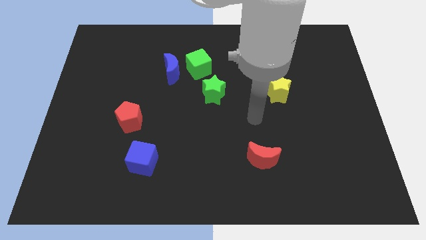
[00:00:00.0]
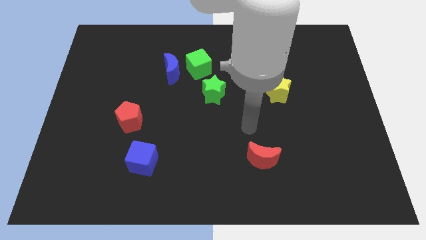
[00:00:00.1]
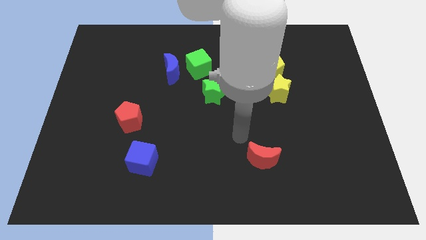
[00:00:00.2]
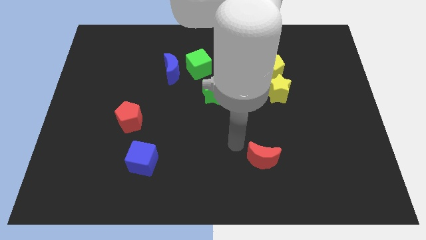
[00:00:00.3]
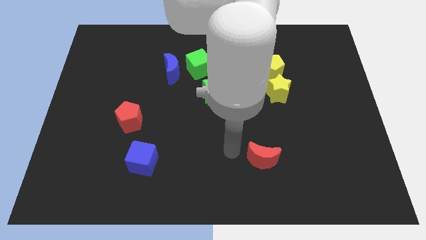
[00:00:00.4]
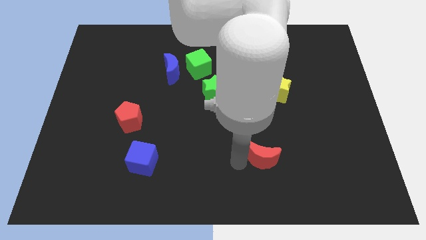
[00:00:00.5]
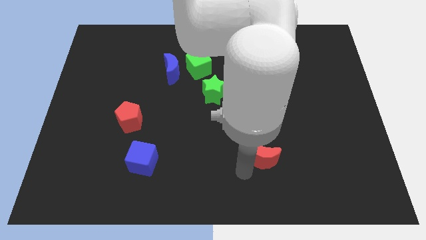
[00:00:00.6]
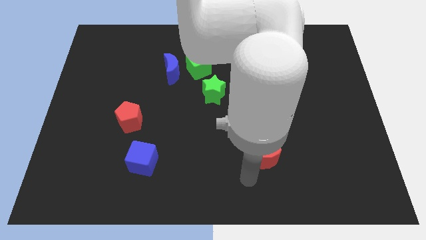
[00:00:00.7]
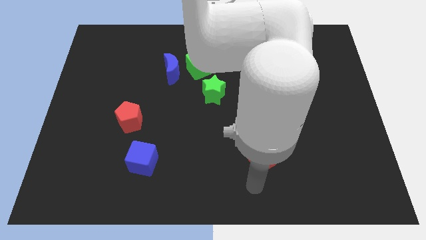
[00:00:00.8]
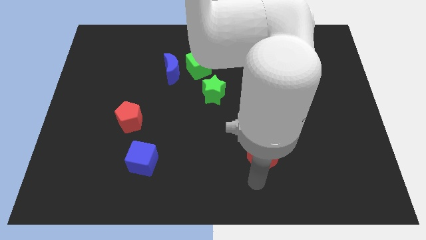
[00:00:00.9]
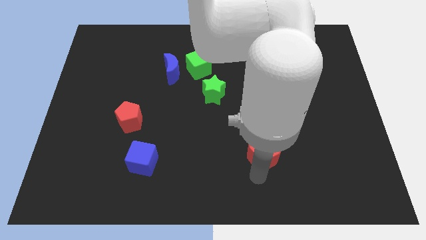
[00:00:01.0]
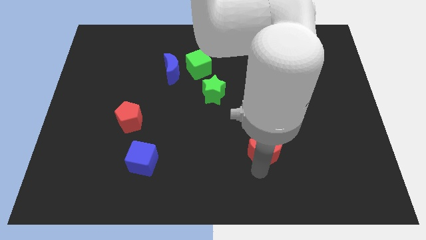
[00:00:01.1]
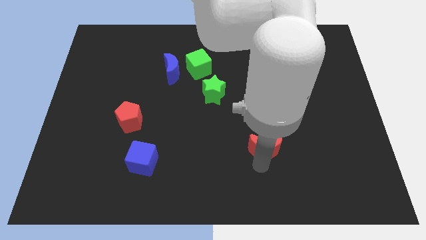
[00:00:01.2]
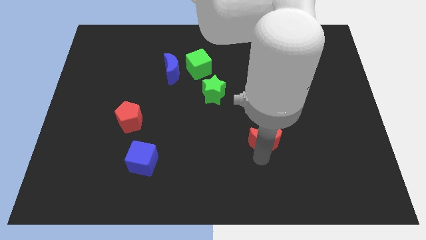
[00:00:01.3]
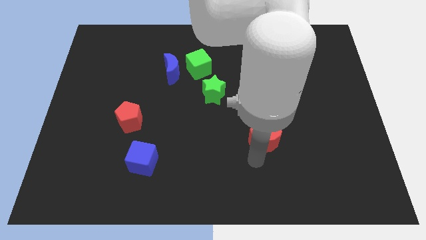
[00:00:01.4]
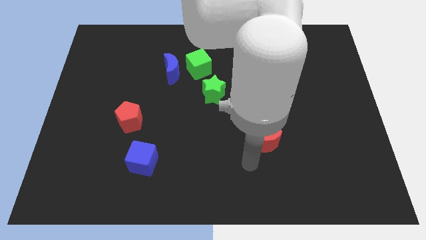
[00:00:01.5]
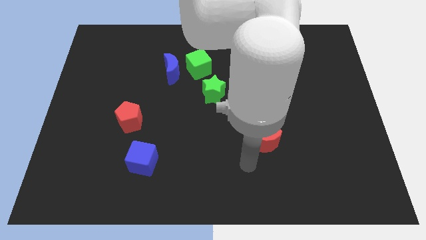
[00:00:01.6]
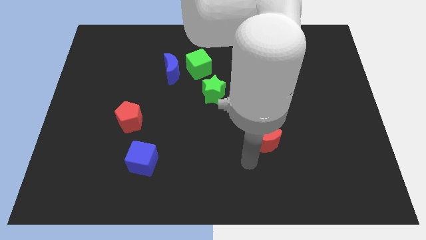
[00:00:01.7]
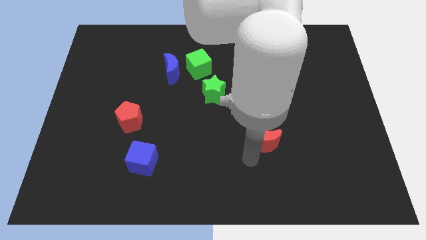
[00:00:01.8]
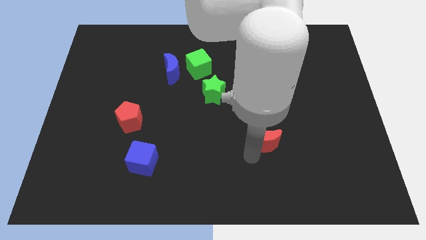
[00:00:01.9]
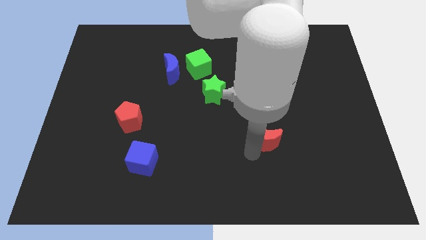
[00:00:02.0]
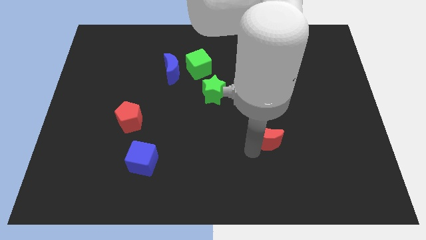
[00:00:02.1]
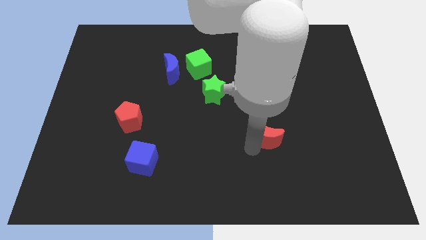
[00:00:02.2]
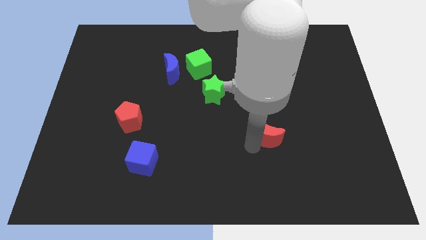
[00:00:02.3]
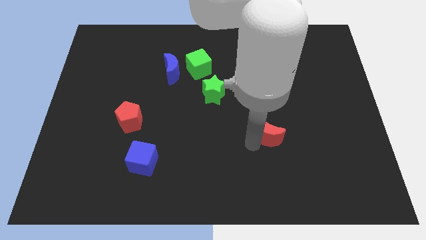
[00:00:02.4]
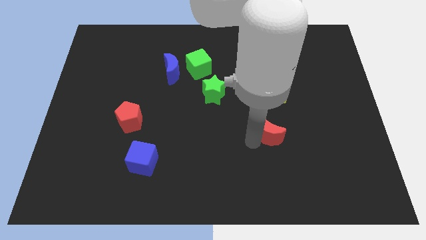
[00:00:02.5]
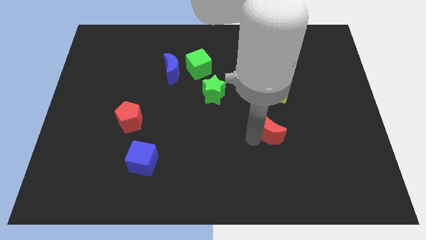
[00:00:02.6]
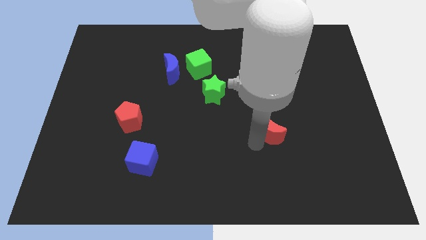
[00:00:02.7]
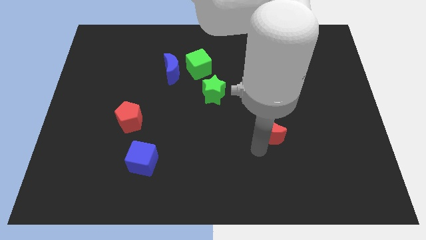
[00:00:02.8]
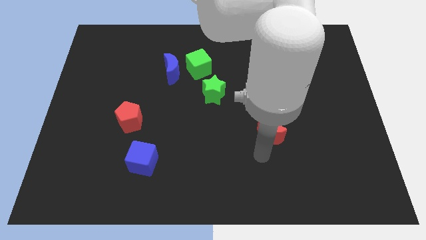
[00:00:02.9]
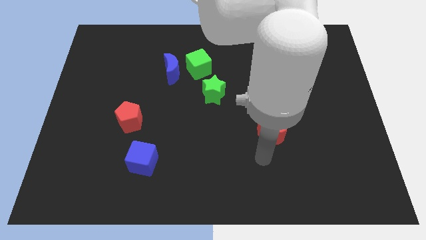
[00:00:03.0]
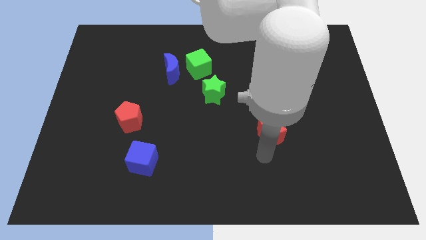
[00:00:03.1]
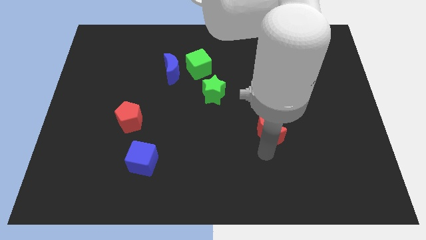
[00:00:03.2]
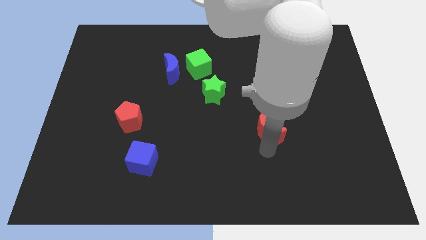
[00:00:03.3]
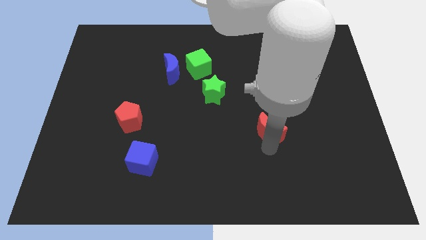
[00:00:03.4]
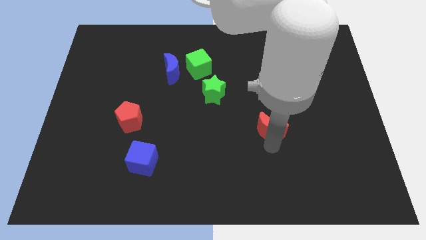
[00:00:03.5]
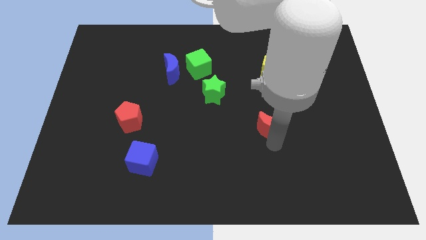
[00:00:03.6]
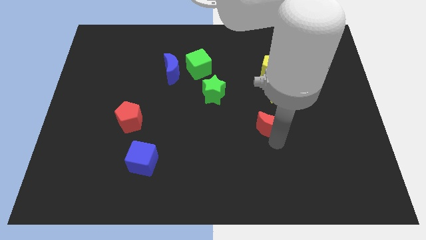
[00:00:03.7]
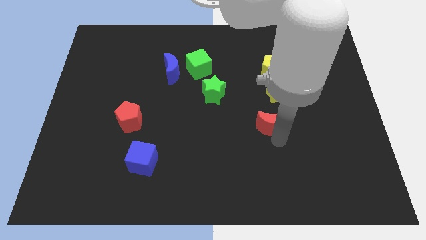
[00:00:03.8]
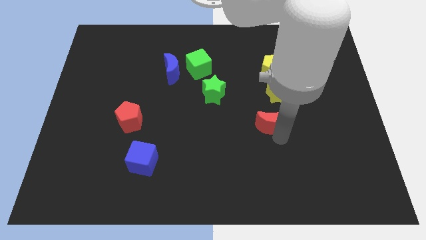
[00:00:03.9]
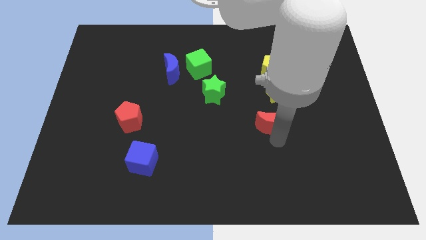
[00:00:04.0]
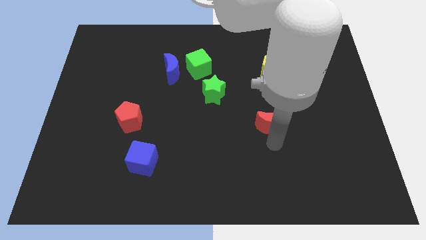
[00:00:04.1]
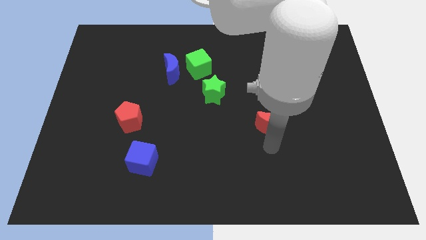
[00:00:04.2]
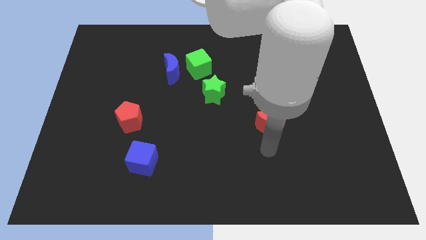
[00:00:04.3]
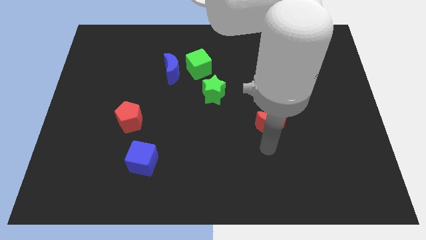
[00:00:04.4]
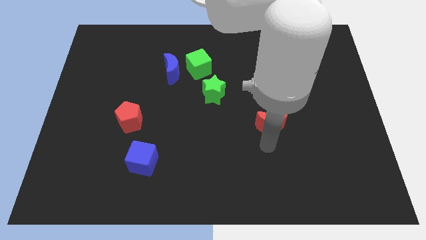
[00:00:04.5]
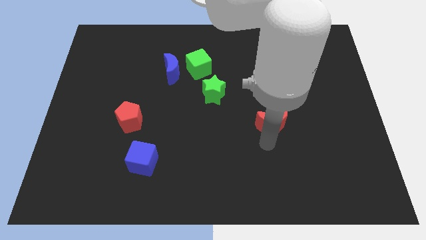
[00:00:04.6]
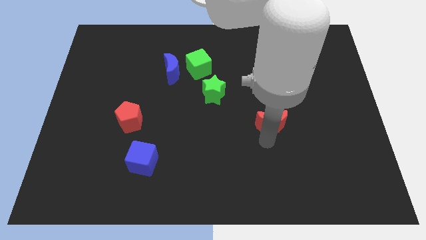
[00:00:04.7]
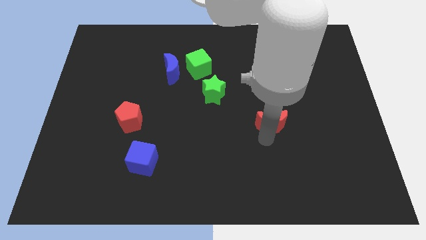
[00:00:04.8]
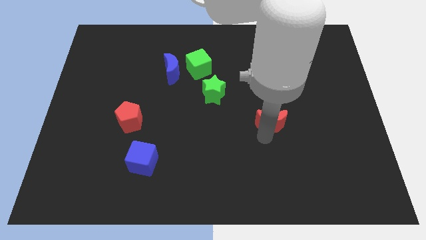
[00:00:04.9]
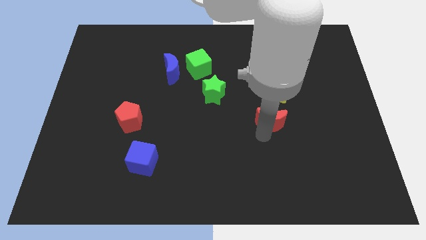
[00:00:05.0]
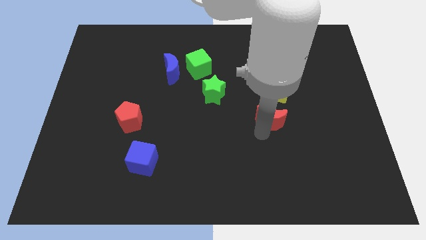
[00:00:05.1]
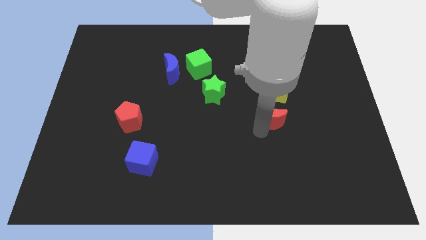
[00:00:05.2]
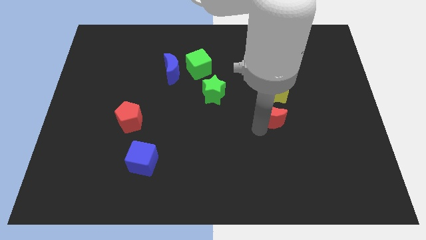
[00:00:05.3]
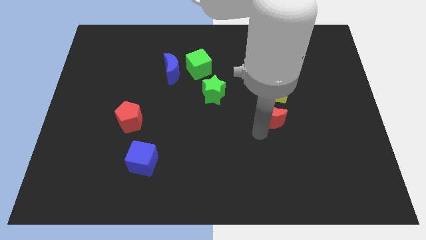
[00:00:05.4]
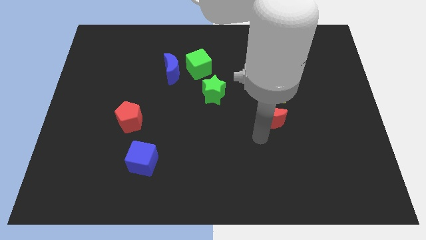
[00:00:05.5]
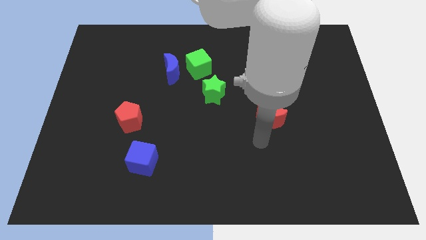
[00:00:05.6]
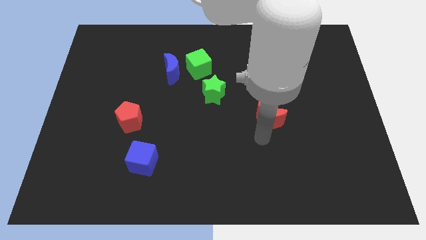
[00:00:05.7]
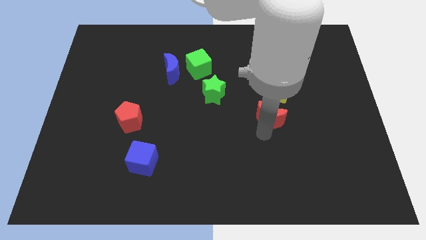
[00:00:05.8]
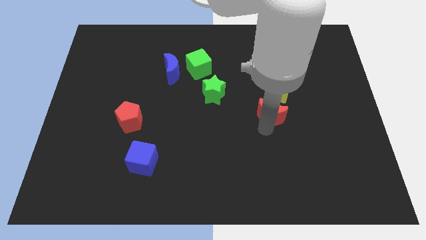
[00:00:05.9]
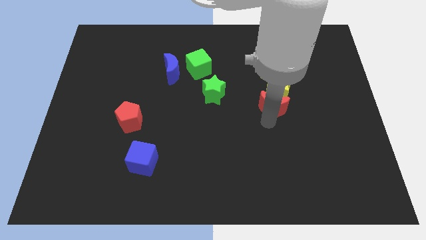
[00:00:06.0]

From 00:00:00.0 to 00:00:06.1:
put the red moon close to the yellow star

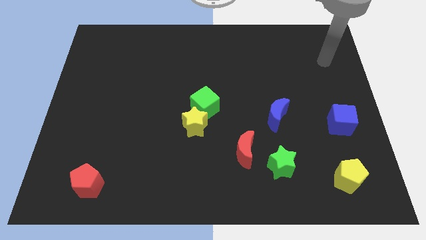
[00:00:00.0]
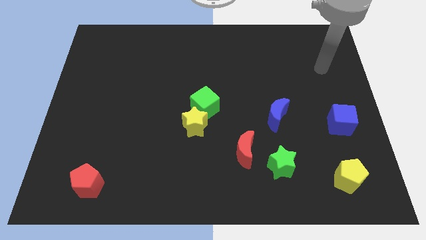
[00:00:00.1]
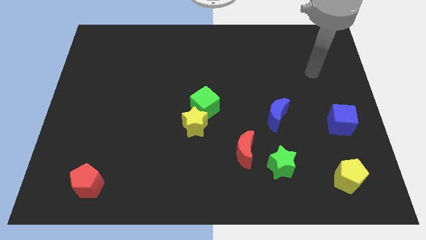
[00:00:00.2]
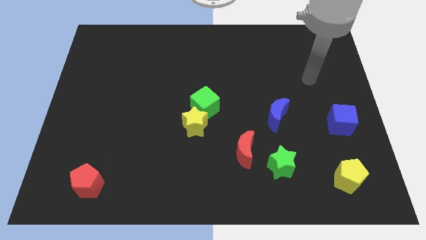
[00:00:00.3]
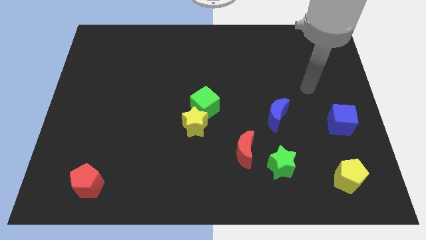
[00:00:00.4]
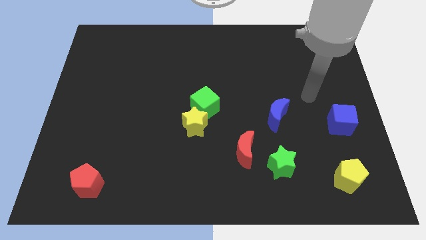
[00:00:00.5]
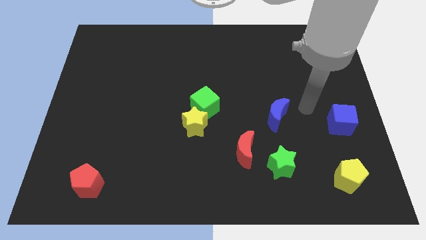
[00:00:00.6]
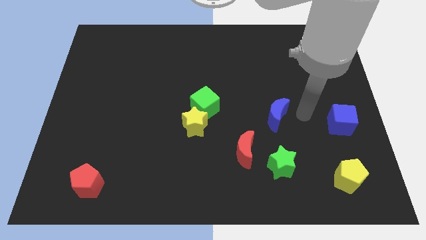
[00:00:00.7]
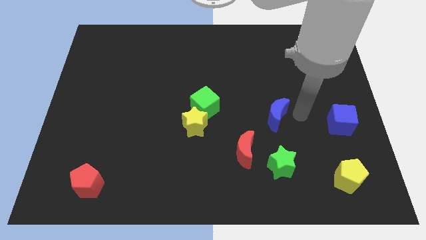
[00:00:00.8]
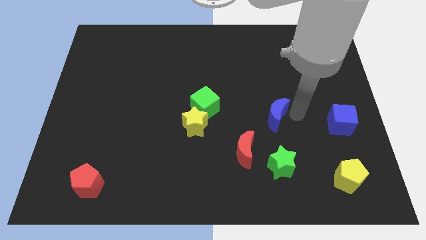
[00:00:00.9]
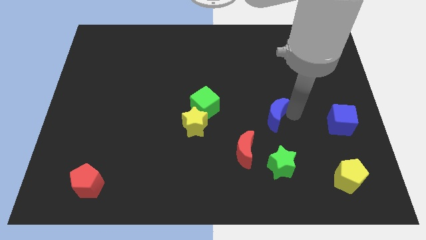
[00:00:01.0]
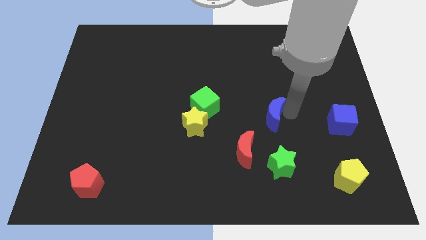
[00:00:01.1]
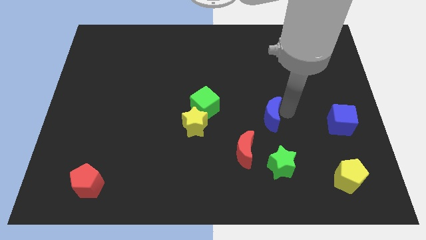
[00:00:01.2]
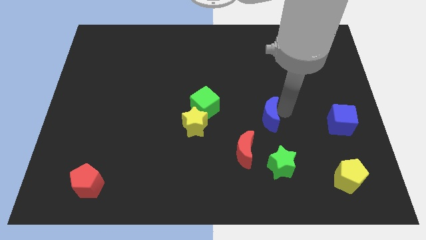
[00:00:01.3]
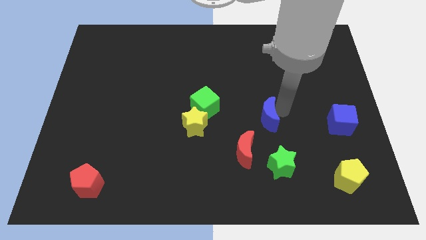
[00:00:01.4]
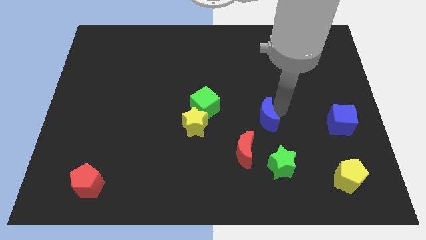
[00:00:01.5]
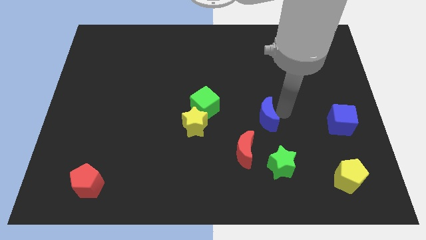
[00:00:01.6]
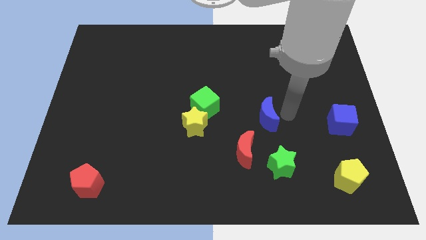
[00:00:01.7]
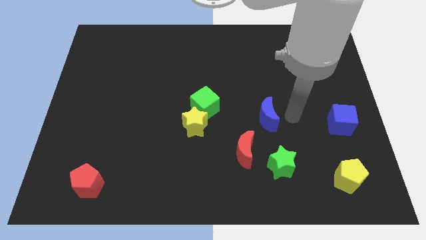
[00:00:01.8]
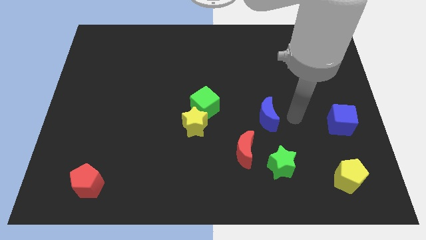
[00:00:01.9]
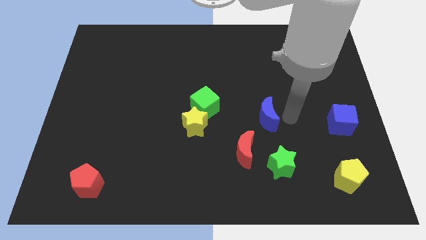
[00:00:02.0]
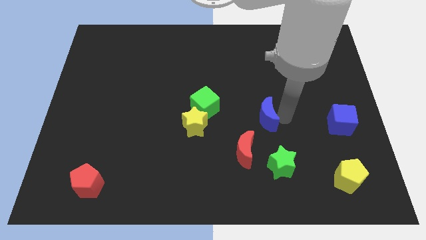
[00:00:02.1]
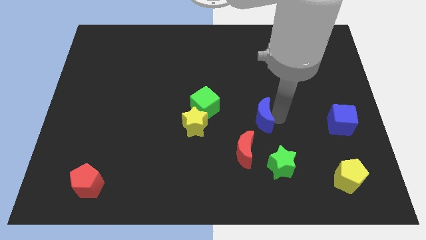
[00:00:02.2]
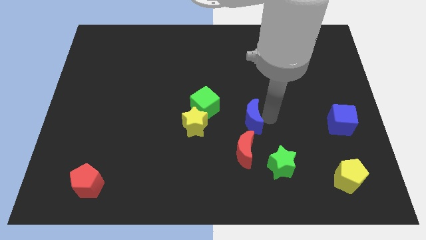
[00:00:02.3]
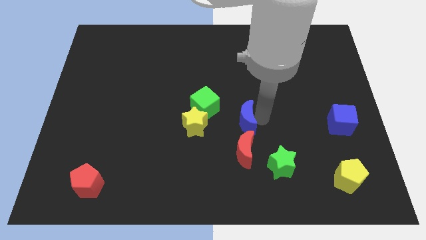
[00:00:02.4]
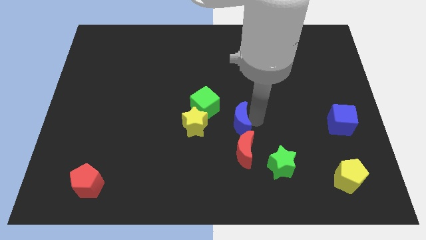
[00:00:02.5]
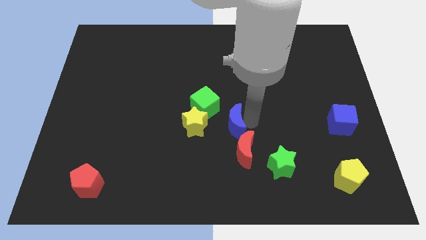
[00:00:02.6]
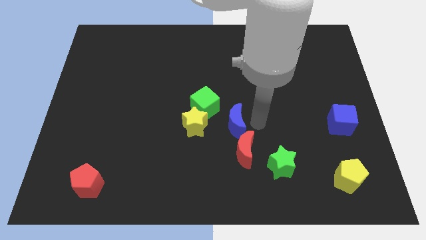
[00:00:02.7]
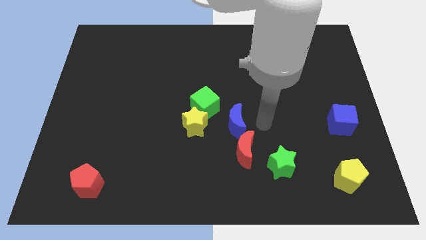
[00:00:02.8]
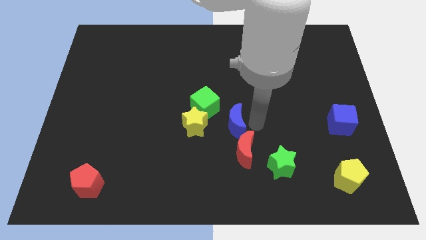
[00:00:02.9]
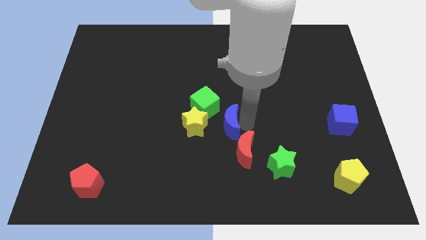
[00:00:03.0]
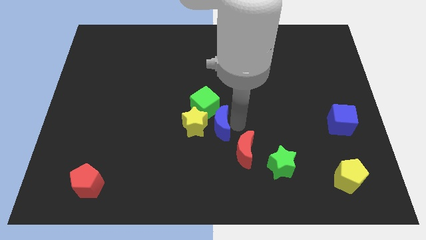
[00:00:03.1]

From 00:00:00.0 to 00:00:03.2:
put the blue moon towards the yellow star
